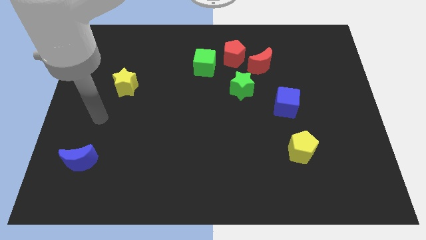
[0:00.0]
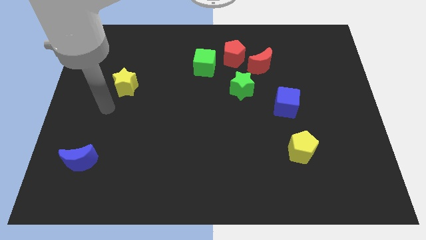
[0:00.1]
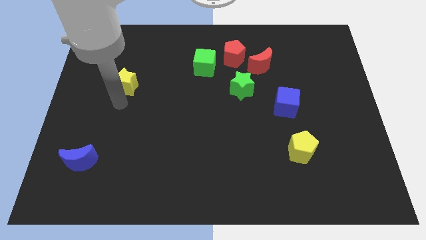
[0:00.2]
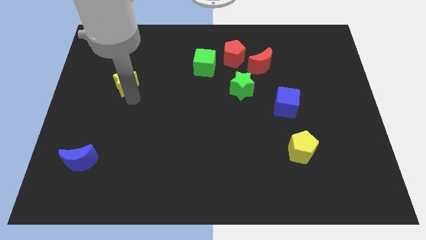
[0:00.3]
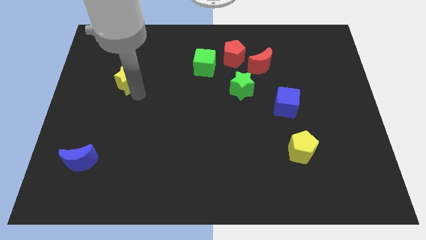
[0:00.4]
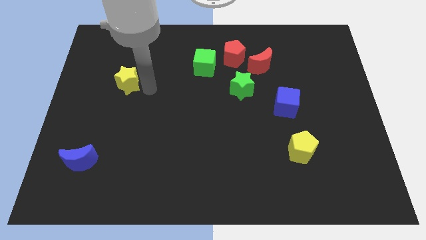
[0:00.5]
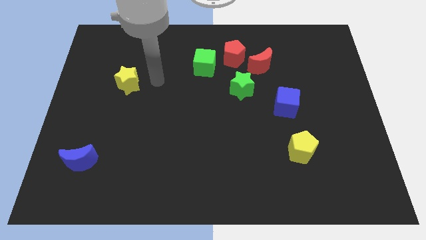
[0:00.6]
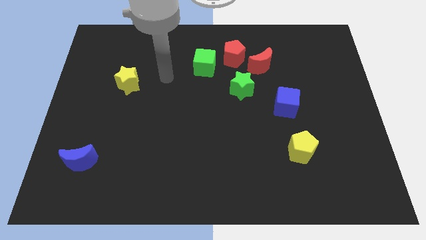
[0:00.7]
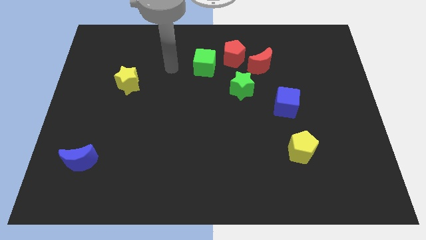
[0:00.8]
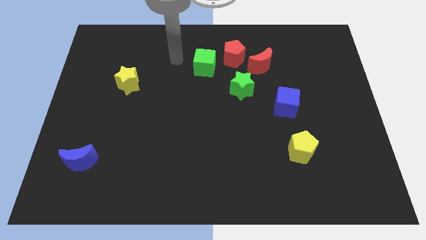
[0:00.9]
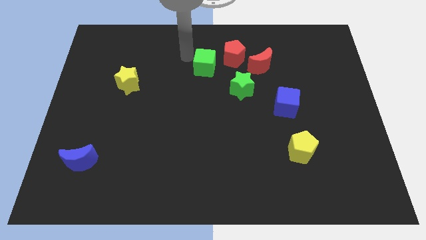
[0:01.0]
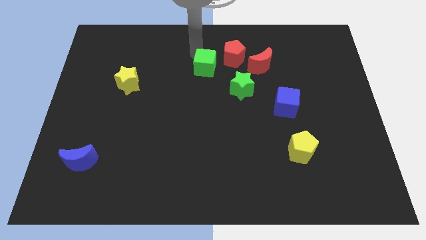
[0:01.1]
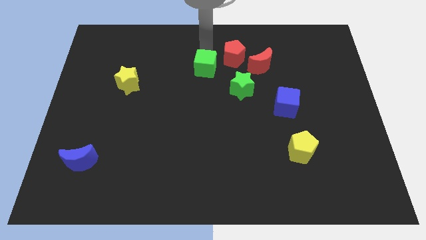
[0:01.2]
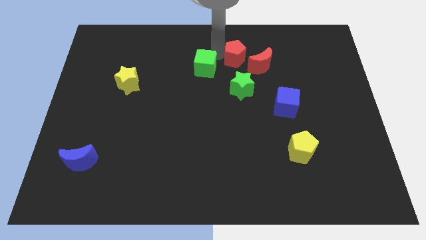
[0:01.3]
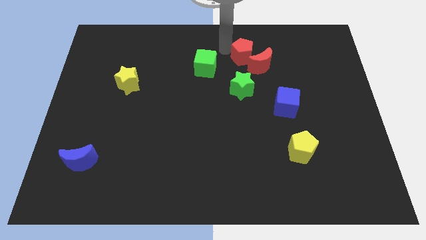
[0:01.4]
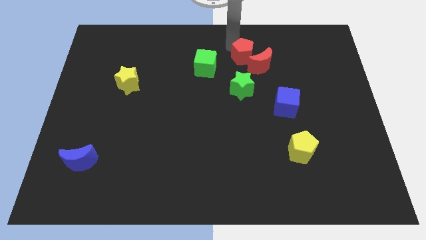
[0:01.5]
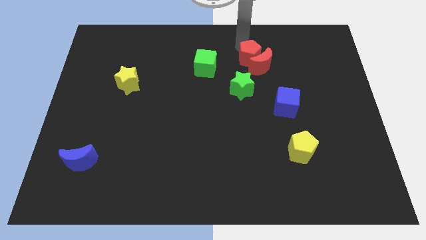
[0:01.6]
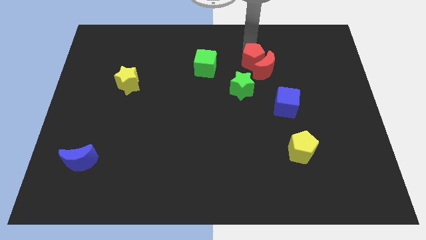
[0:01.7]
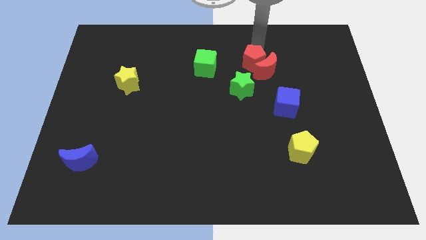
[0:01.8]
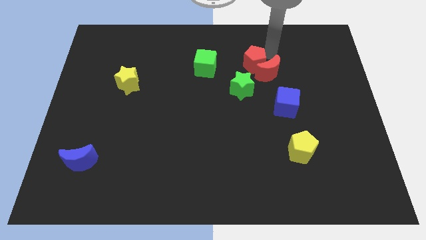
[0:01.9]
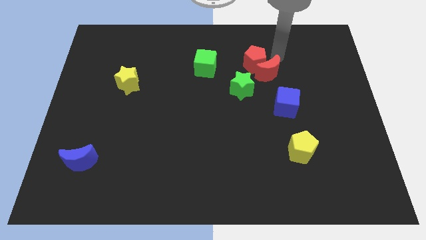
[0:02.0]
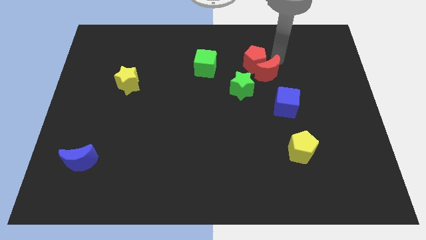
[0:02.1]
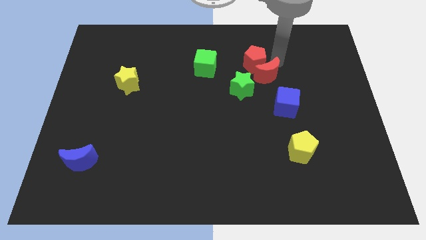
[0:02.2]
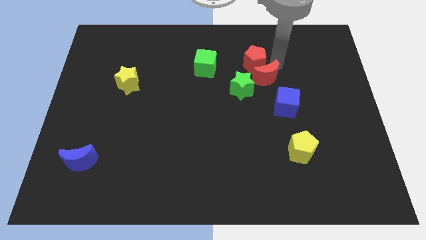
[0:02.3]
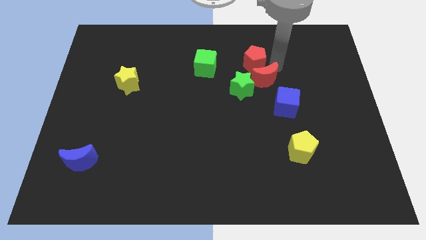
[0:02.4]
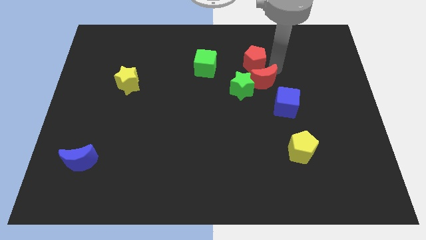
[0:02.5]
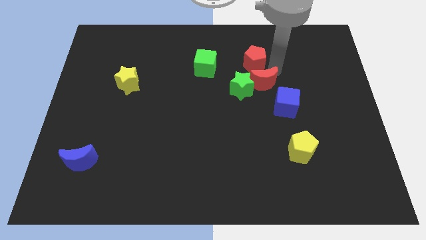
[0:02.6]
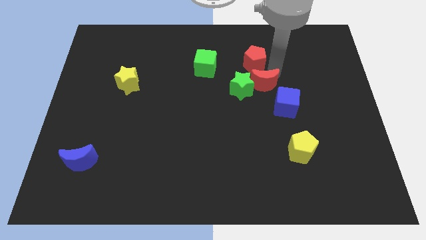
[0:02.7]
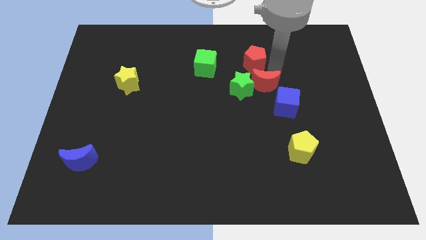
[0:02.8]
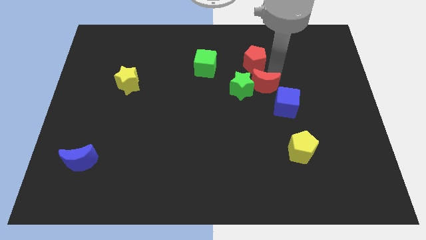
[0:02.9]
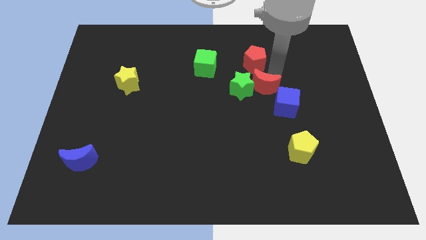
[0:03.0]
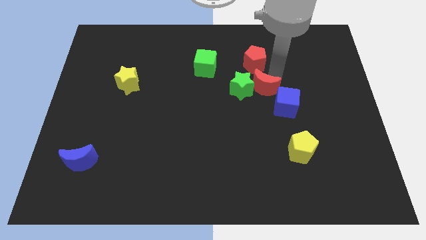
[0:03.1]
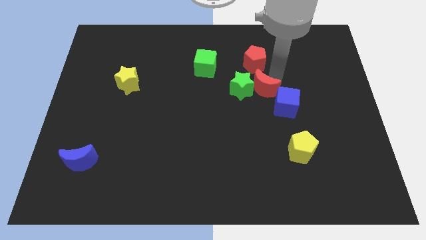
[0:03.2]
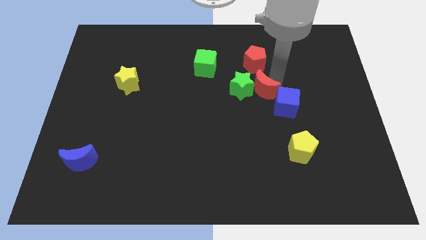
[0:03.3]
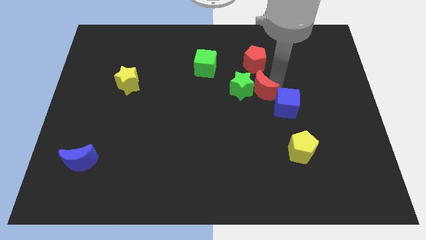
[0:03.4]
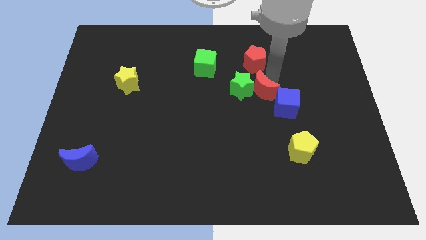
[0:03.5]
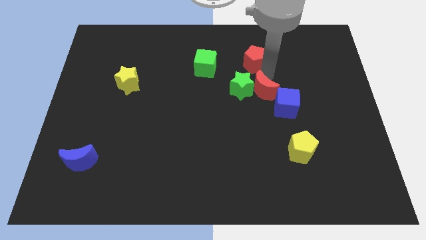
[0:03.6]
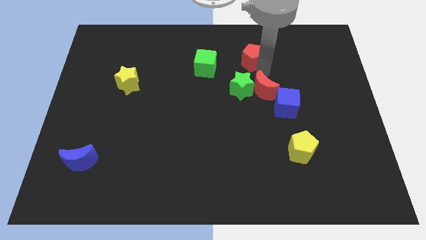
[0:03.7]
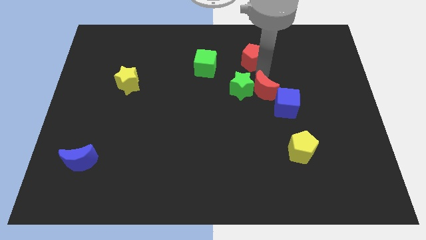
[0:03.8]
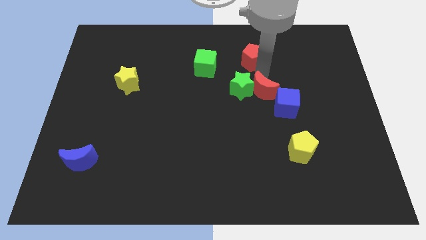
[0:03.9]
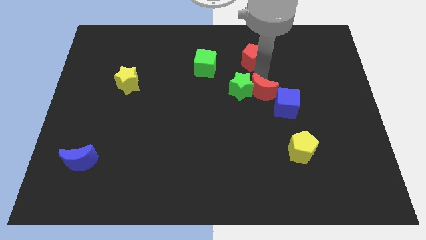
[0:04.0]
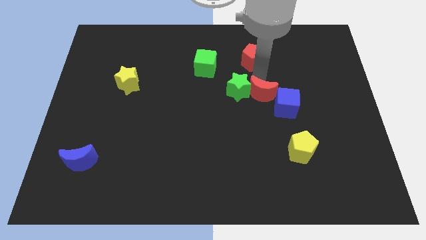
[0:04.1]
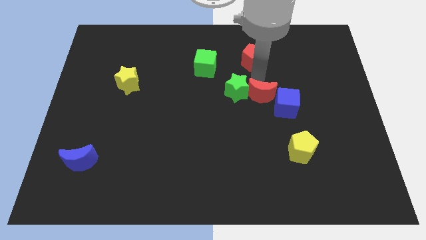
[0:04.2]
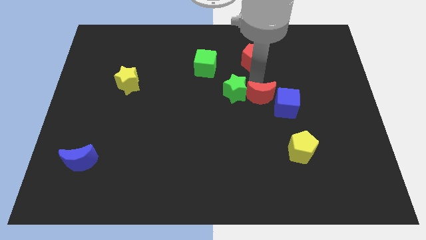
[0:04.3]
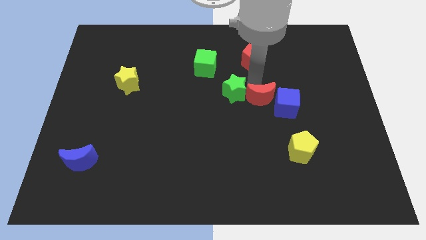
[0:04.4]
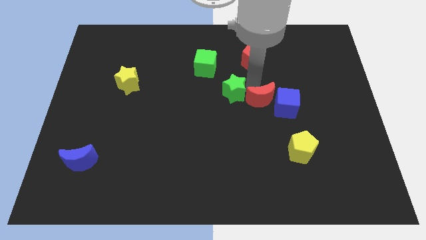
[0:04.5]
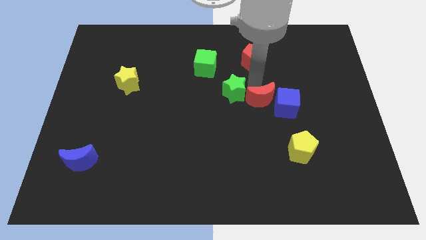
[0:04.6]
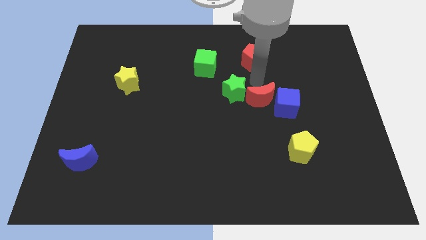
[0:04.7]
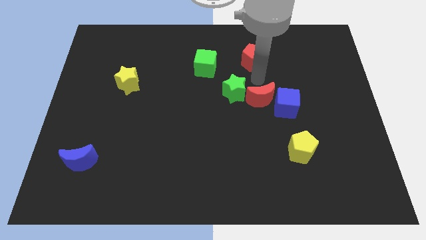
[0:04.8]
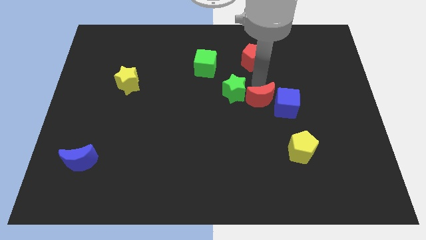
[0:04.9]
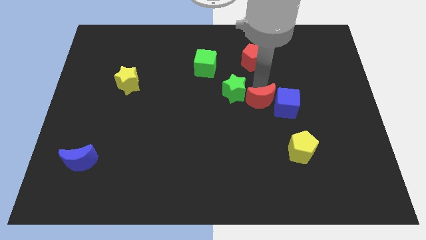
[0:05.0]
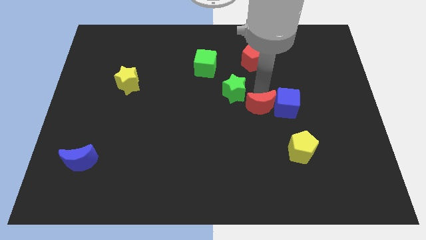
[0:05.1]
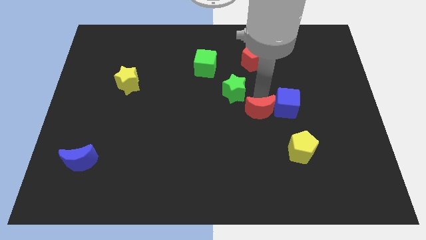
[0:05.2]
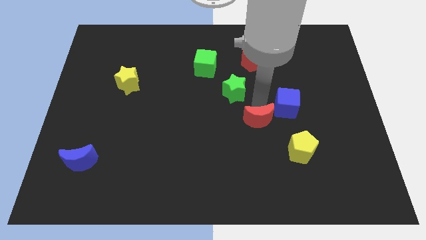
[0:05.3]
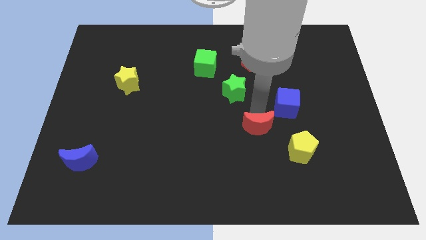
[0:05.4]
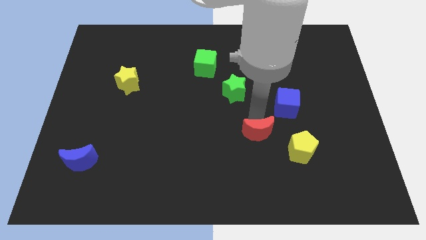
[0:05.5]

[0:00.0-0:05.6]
move the red moon down

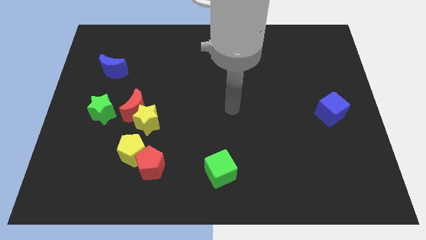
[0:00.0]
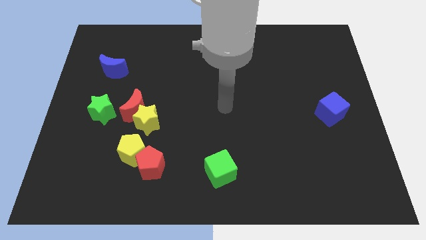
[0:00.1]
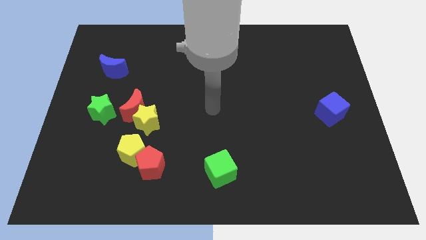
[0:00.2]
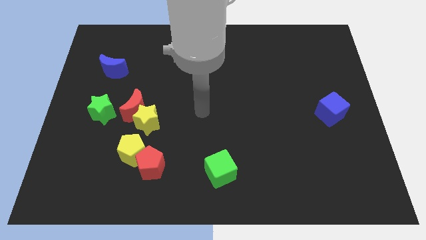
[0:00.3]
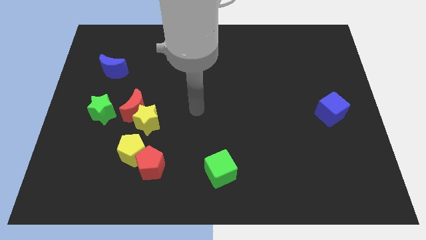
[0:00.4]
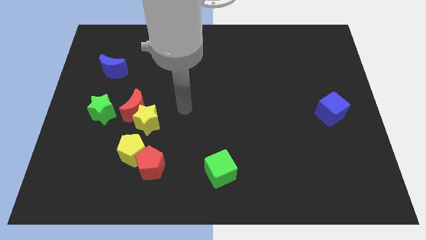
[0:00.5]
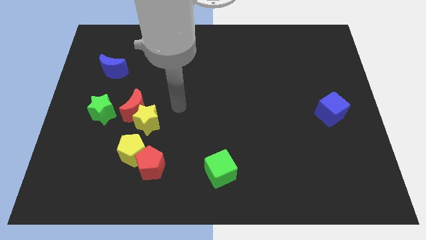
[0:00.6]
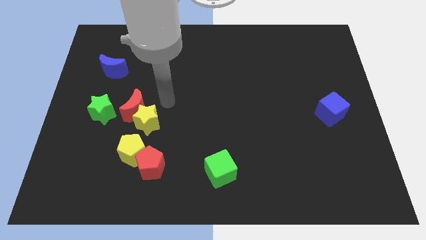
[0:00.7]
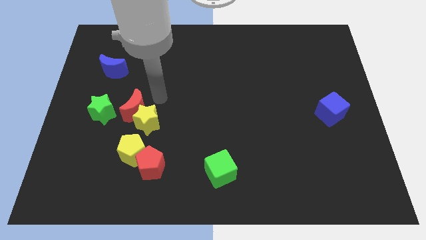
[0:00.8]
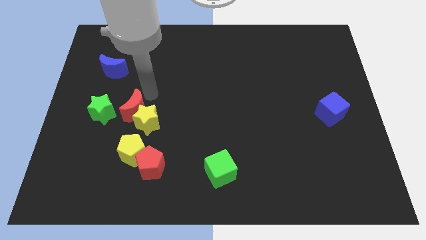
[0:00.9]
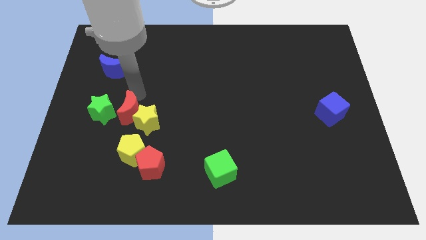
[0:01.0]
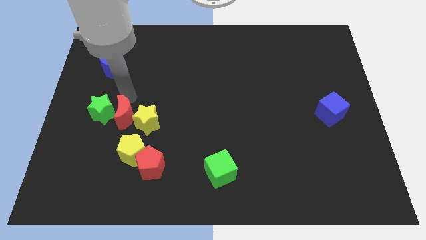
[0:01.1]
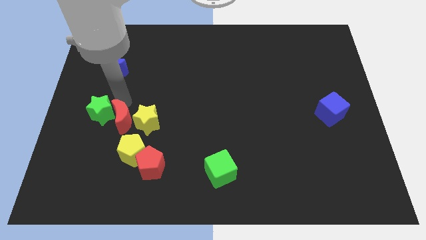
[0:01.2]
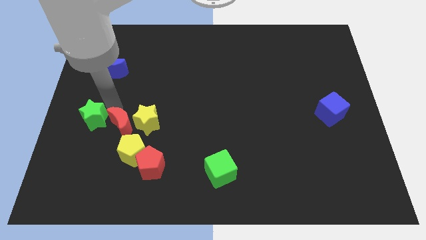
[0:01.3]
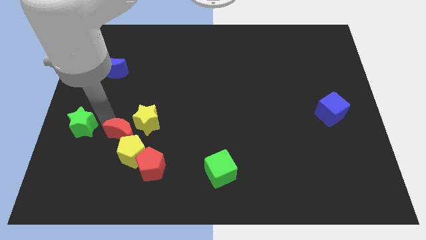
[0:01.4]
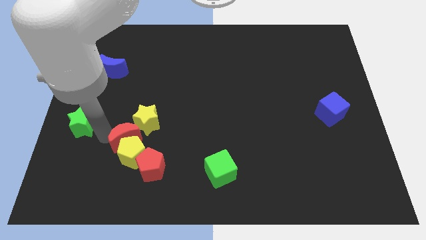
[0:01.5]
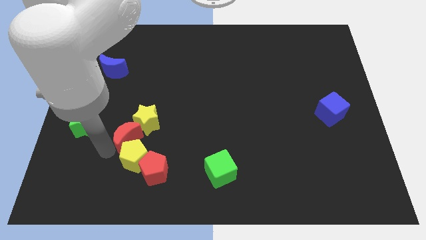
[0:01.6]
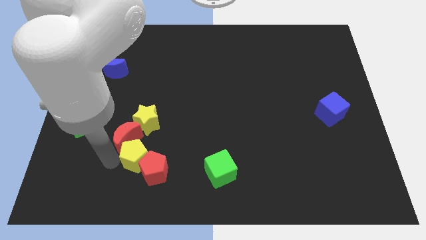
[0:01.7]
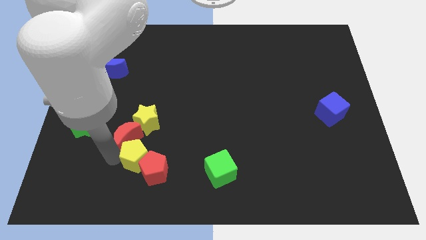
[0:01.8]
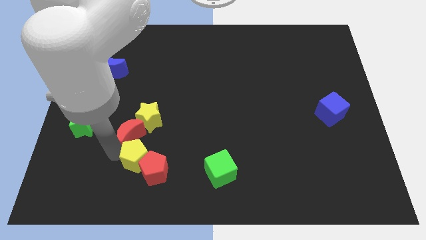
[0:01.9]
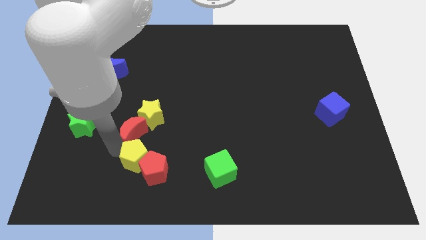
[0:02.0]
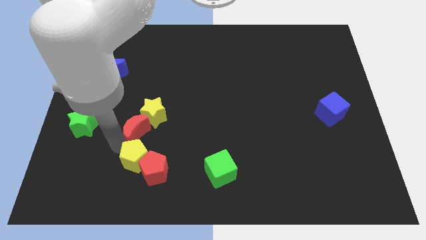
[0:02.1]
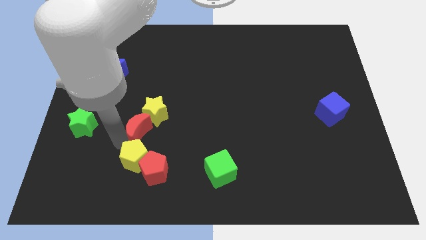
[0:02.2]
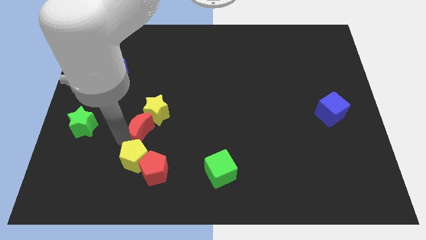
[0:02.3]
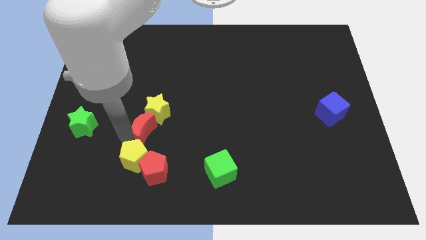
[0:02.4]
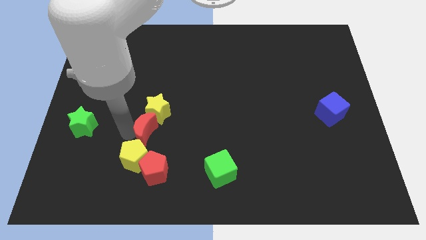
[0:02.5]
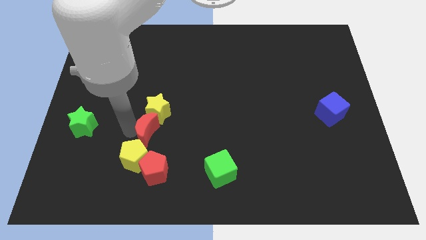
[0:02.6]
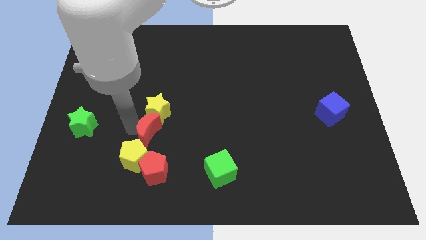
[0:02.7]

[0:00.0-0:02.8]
push the red moon somewhat down and right diagonally
